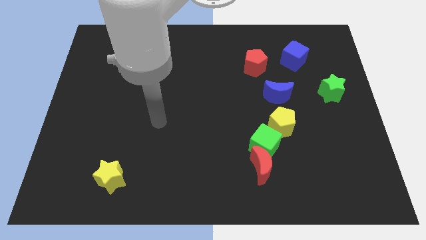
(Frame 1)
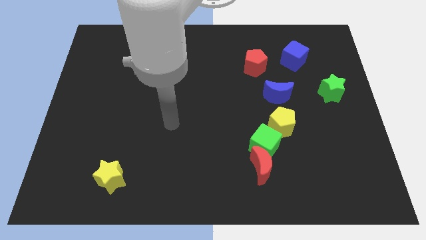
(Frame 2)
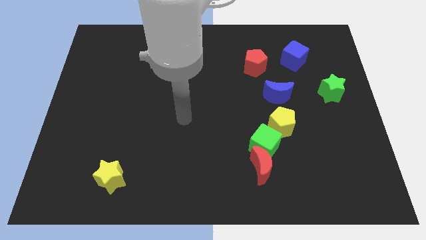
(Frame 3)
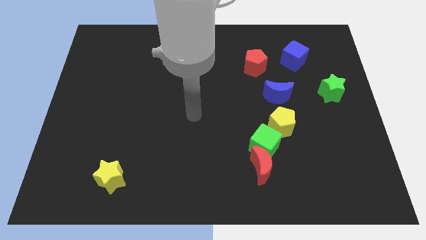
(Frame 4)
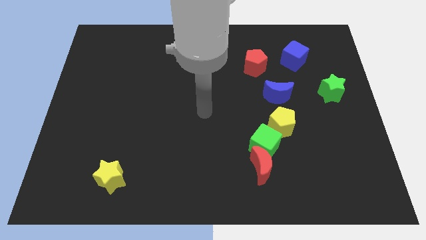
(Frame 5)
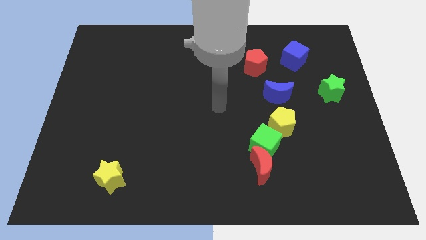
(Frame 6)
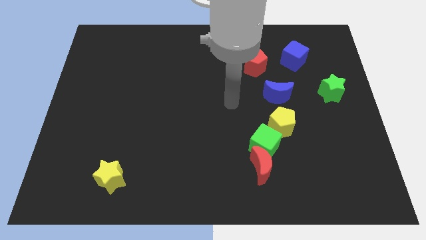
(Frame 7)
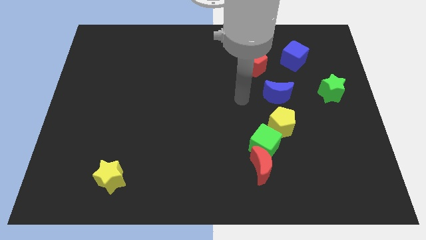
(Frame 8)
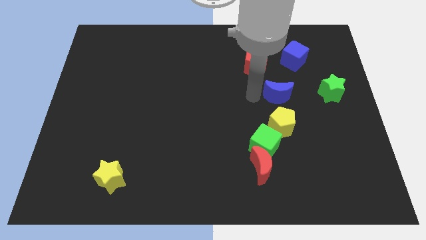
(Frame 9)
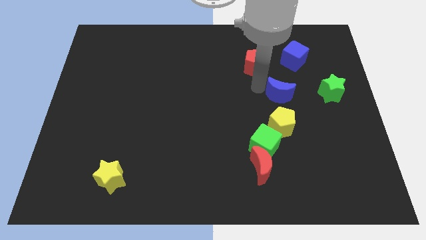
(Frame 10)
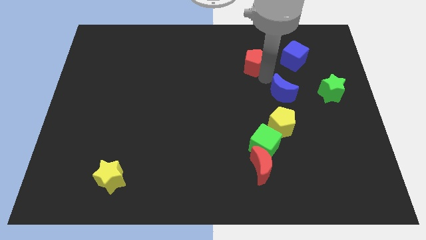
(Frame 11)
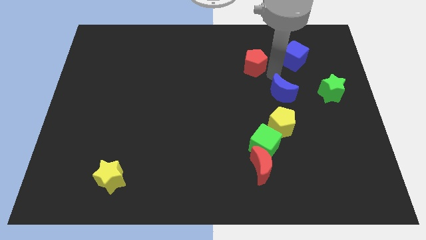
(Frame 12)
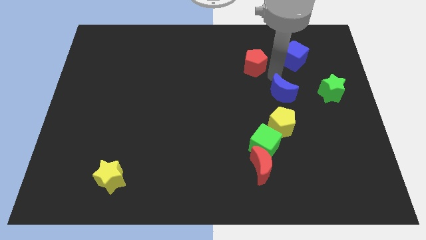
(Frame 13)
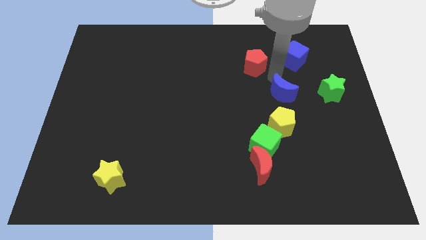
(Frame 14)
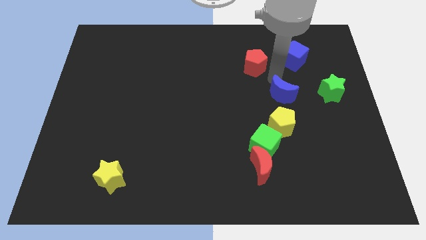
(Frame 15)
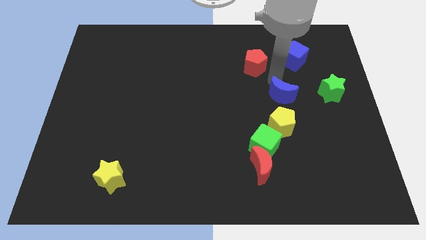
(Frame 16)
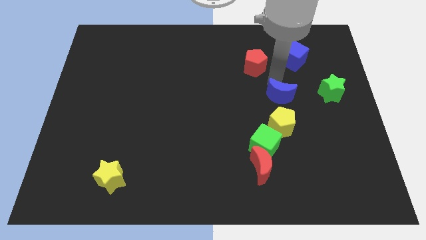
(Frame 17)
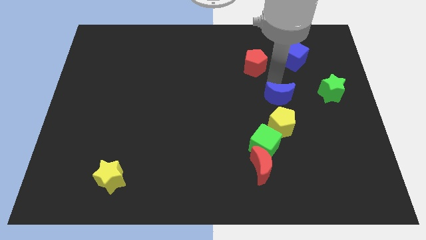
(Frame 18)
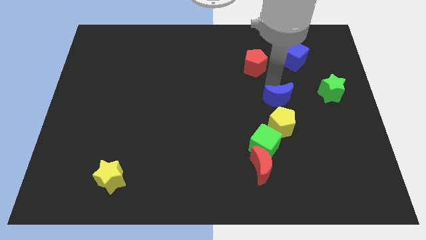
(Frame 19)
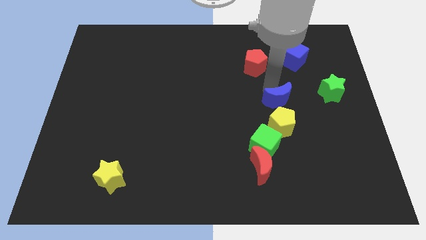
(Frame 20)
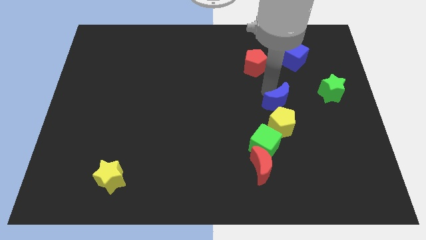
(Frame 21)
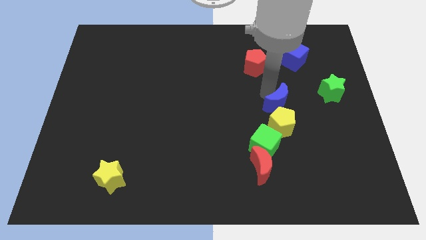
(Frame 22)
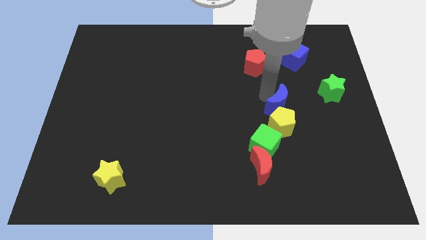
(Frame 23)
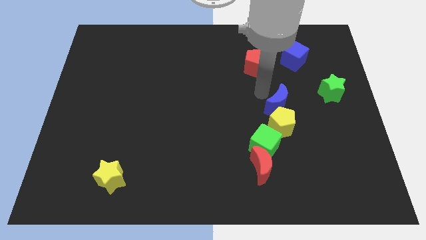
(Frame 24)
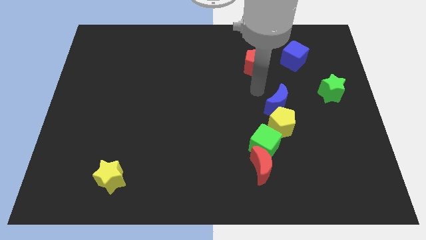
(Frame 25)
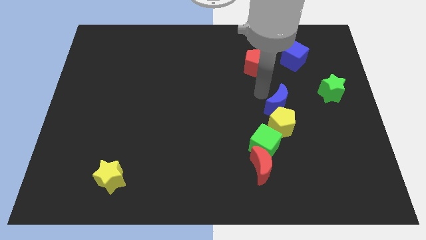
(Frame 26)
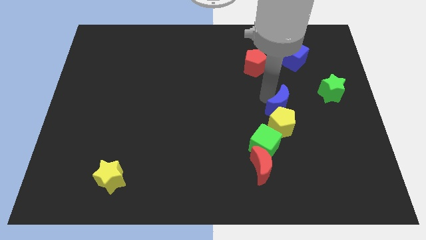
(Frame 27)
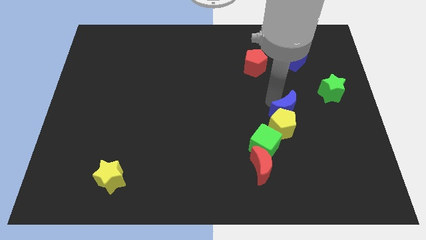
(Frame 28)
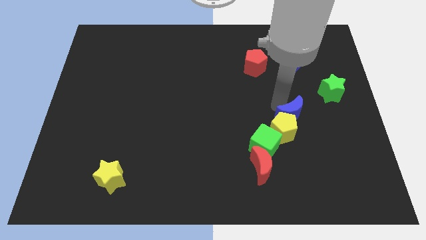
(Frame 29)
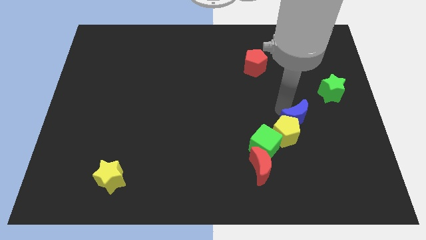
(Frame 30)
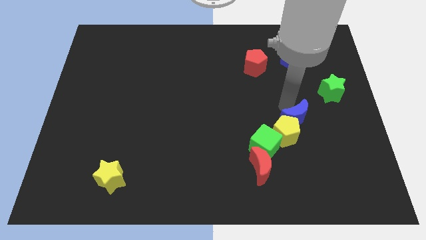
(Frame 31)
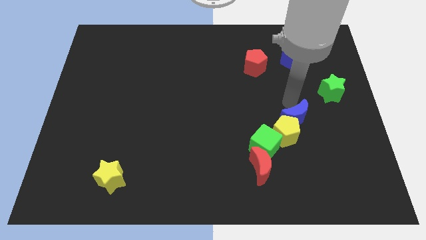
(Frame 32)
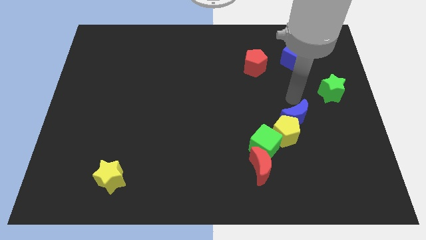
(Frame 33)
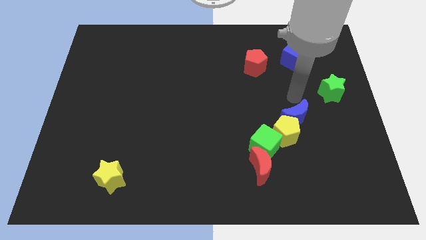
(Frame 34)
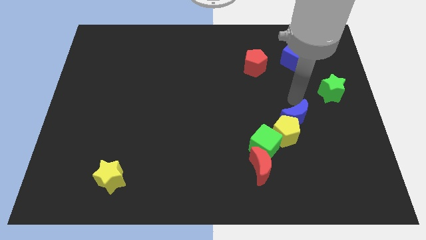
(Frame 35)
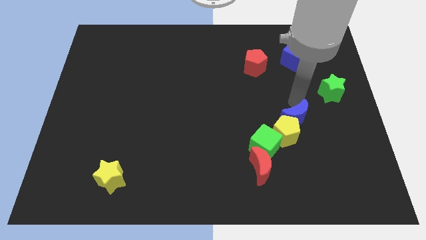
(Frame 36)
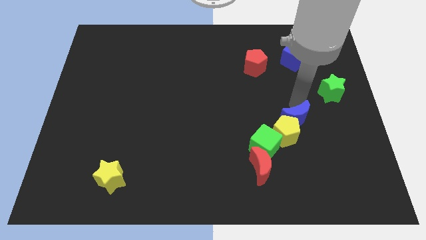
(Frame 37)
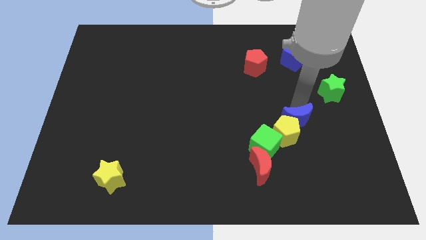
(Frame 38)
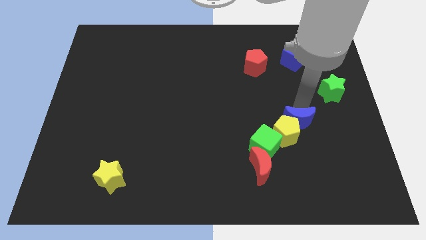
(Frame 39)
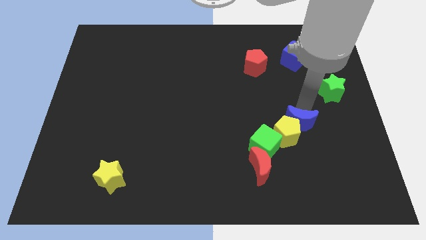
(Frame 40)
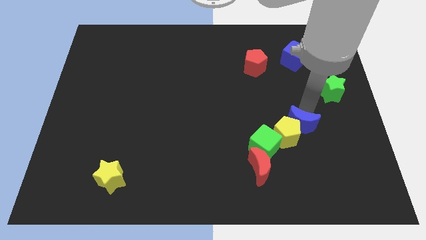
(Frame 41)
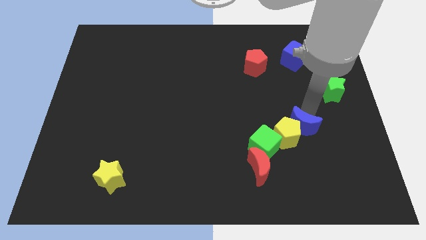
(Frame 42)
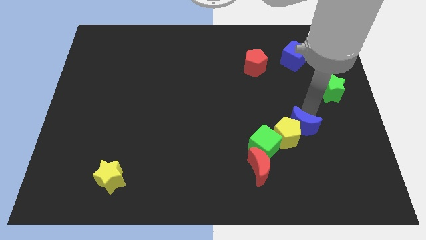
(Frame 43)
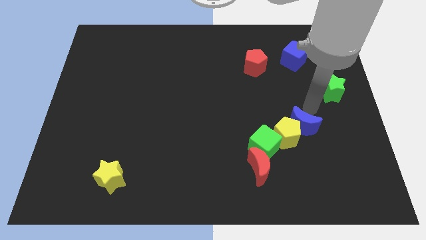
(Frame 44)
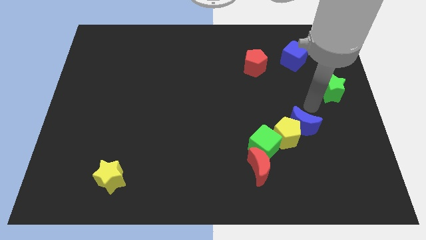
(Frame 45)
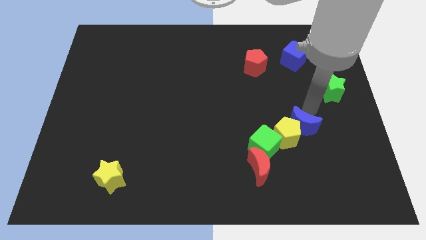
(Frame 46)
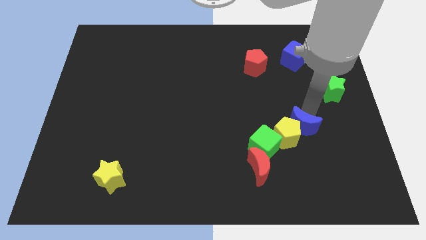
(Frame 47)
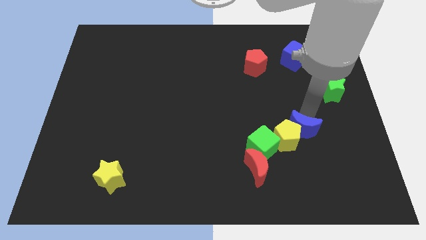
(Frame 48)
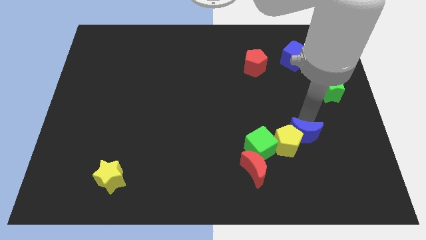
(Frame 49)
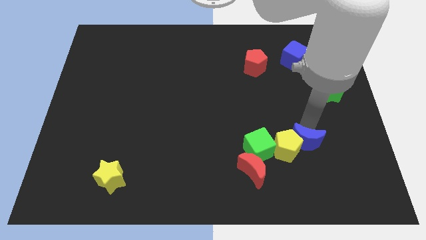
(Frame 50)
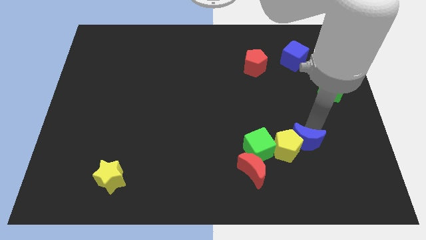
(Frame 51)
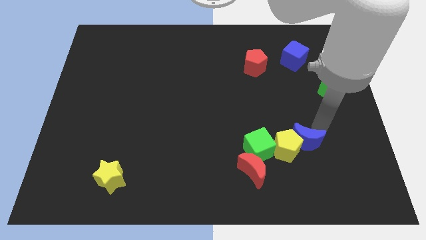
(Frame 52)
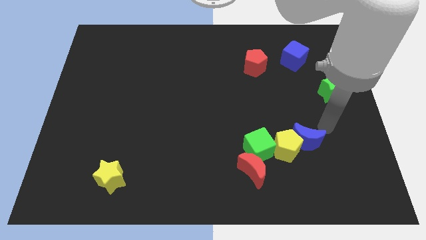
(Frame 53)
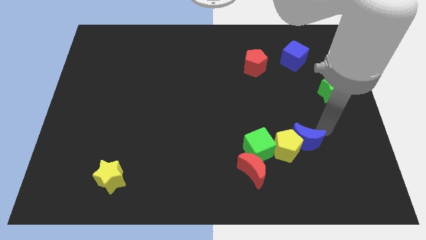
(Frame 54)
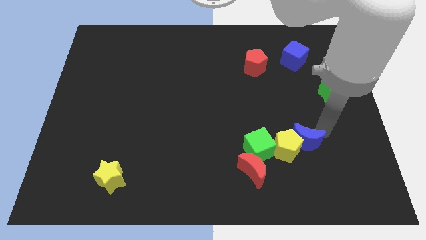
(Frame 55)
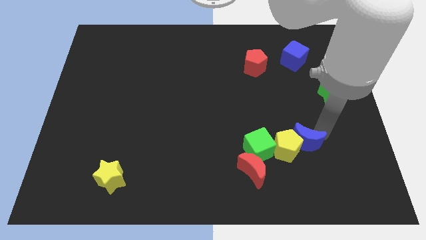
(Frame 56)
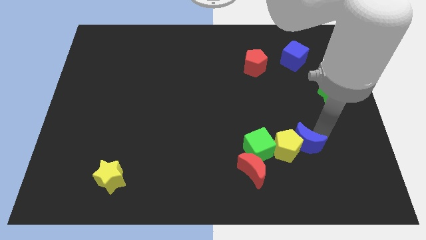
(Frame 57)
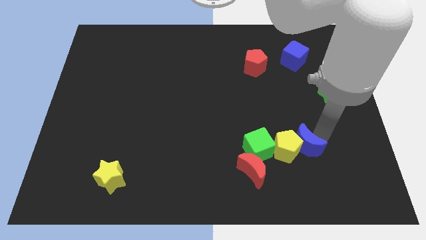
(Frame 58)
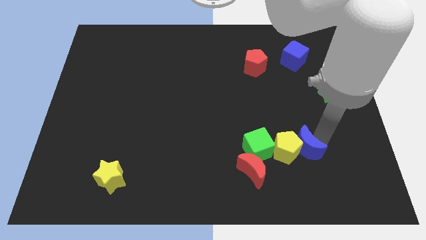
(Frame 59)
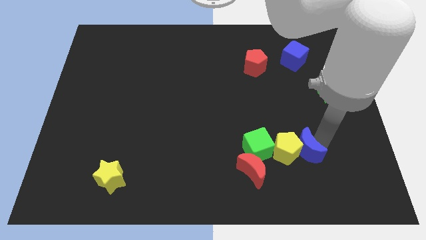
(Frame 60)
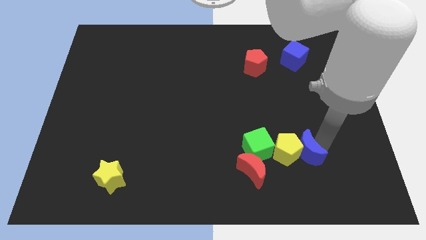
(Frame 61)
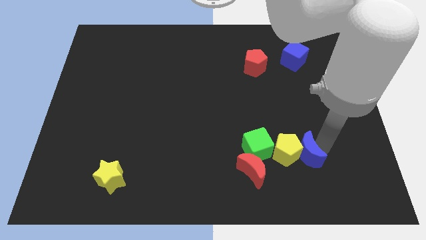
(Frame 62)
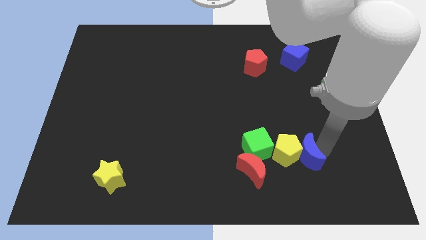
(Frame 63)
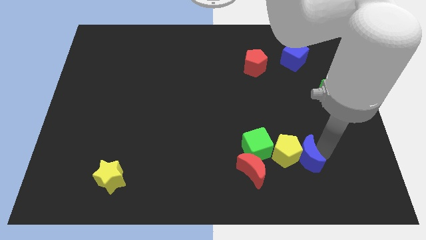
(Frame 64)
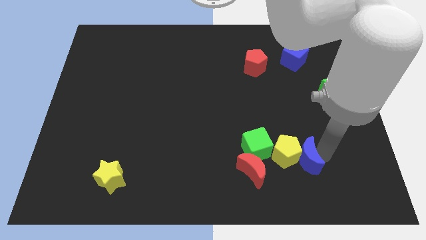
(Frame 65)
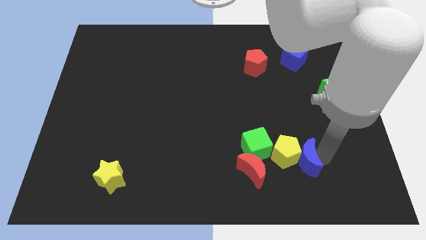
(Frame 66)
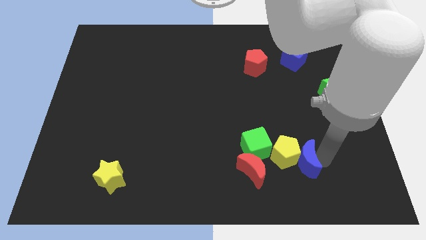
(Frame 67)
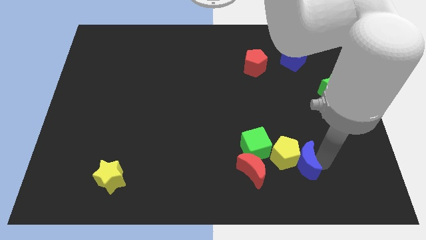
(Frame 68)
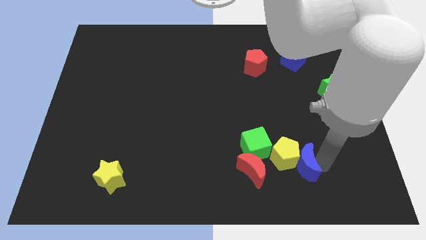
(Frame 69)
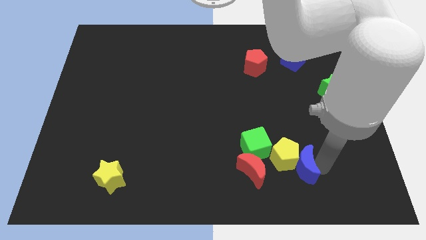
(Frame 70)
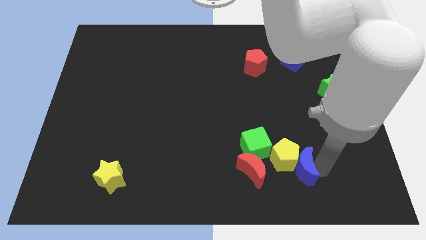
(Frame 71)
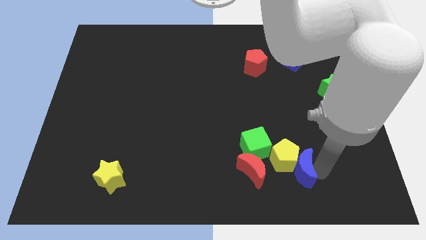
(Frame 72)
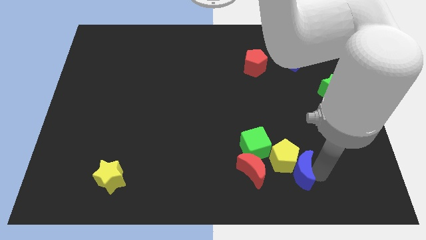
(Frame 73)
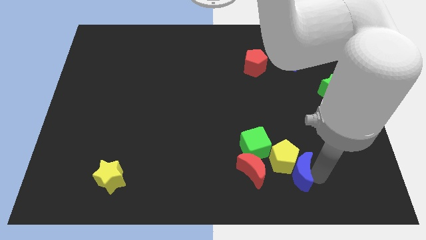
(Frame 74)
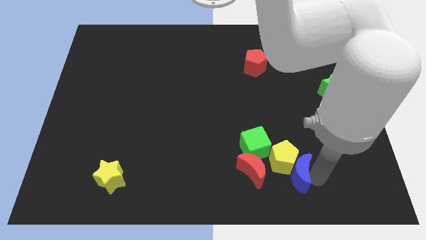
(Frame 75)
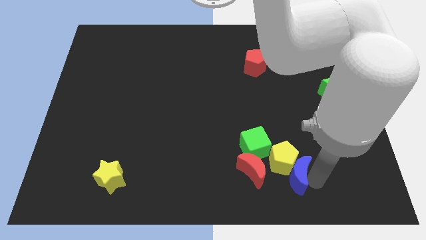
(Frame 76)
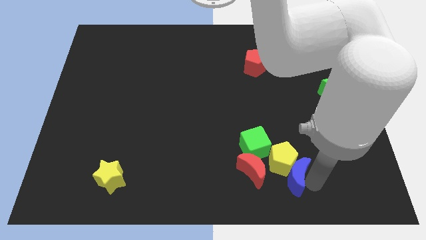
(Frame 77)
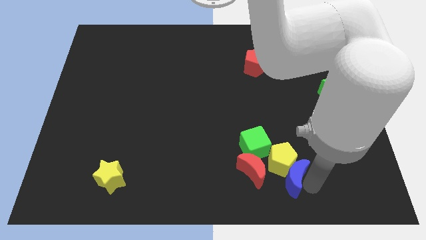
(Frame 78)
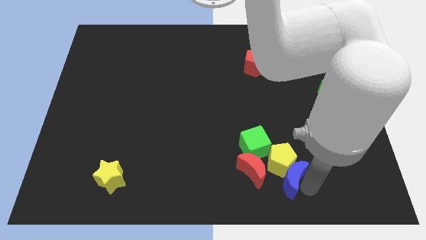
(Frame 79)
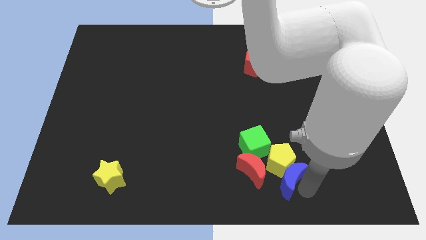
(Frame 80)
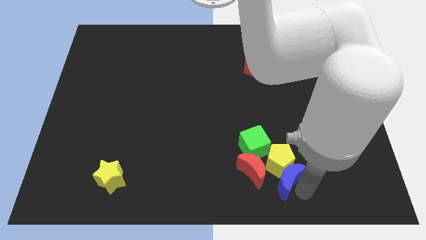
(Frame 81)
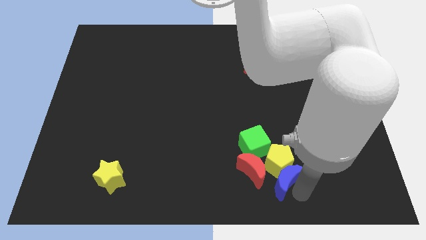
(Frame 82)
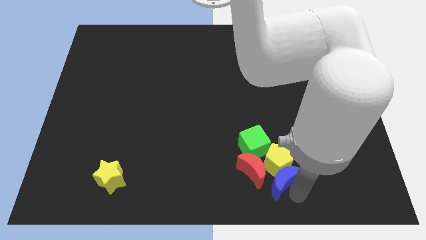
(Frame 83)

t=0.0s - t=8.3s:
slide the blue moon next to the red moon
